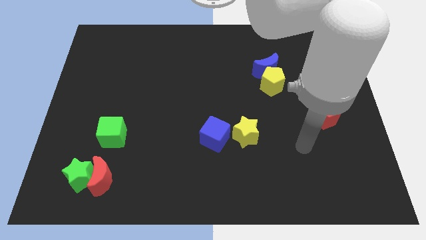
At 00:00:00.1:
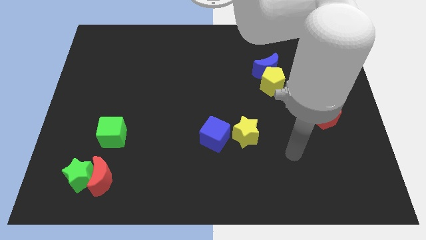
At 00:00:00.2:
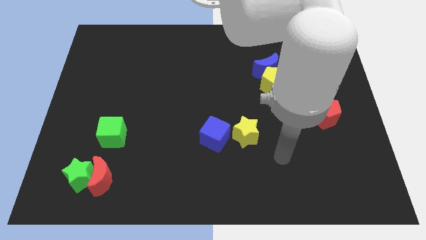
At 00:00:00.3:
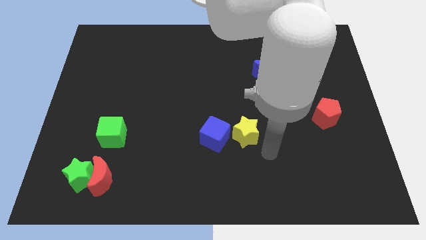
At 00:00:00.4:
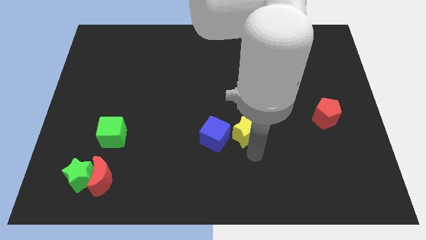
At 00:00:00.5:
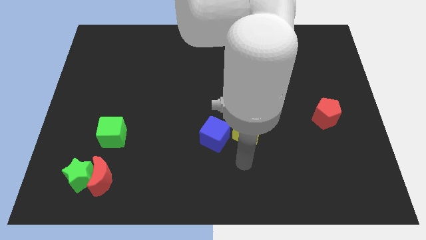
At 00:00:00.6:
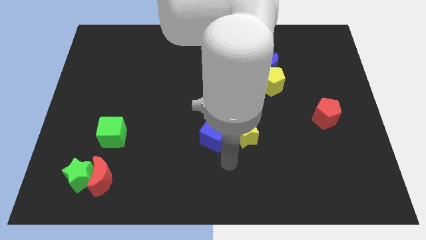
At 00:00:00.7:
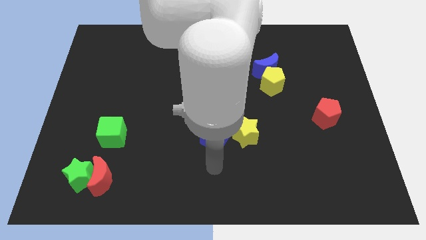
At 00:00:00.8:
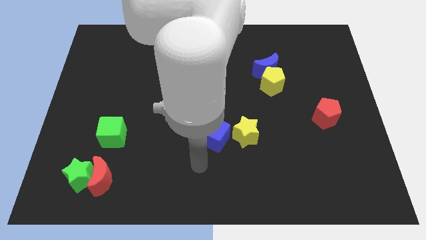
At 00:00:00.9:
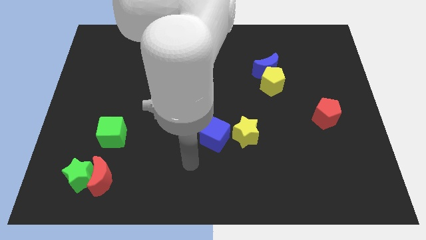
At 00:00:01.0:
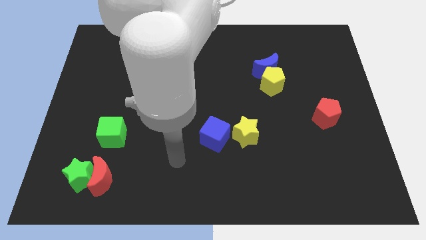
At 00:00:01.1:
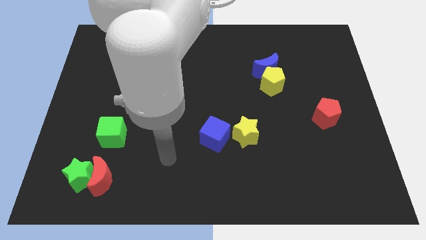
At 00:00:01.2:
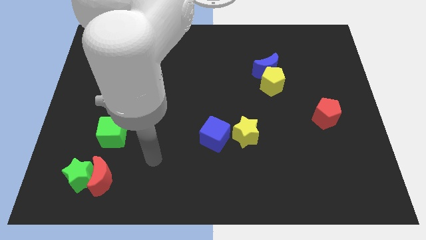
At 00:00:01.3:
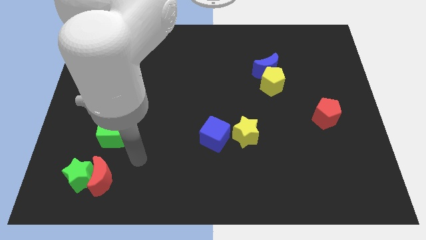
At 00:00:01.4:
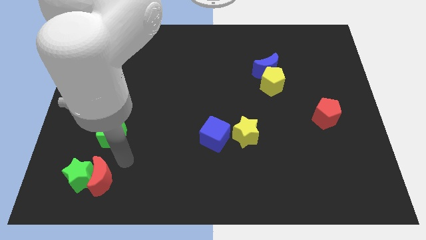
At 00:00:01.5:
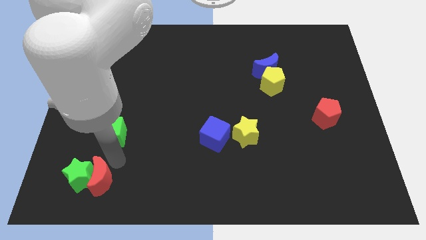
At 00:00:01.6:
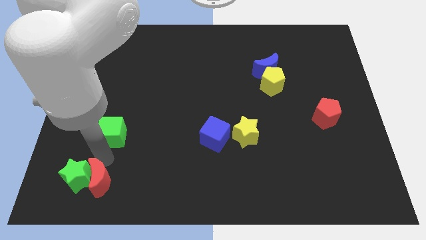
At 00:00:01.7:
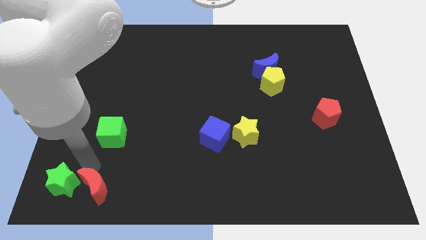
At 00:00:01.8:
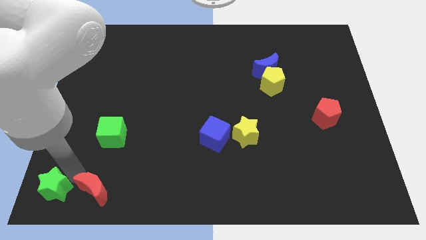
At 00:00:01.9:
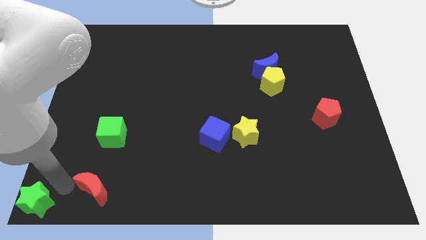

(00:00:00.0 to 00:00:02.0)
move the red moon away from the green star

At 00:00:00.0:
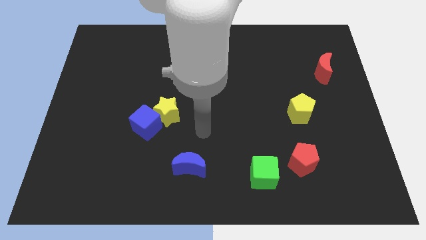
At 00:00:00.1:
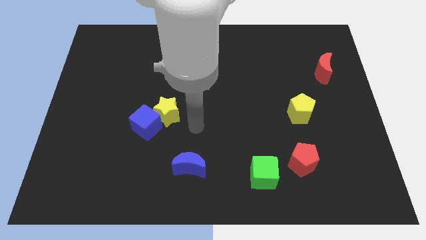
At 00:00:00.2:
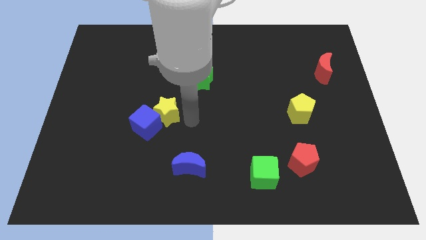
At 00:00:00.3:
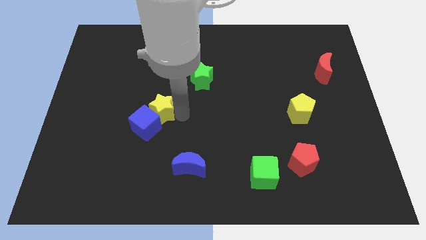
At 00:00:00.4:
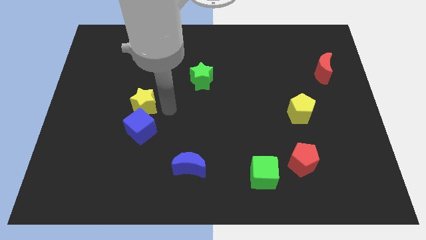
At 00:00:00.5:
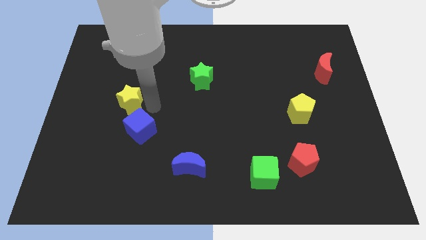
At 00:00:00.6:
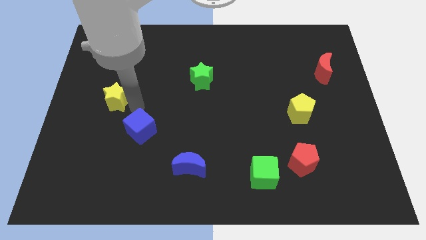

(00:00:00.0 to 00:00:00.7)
separate the blue cube from the yellow star

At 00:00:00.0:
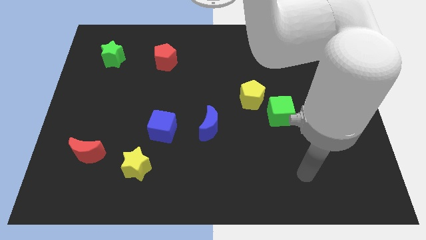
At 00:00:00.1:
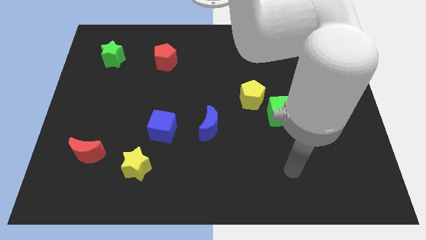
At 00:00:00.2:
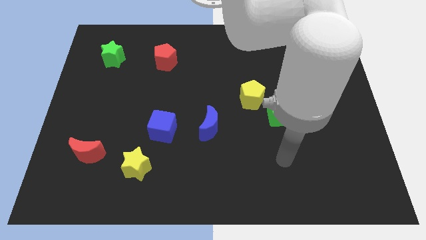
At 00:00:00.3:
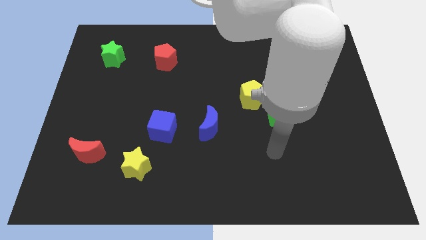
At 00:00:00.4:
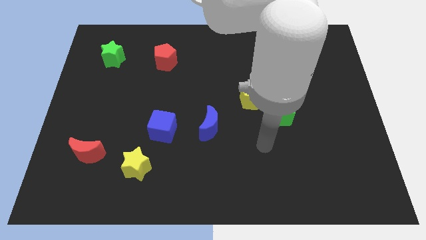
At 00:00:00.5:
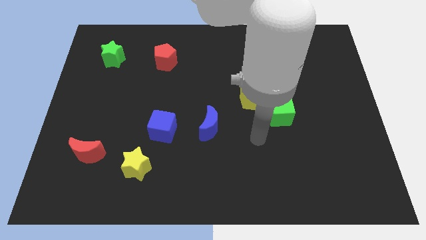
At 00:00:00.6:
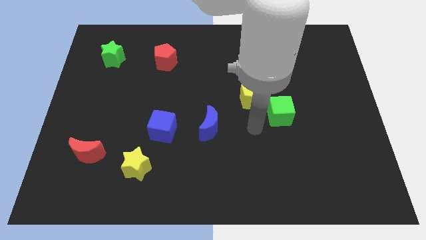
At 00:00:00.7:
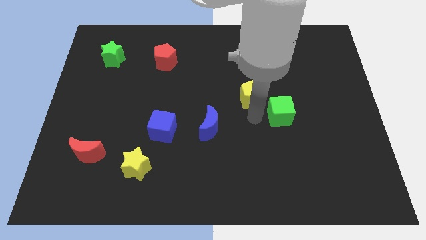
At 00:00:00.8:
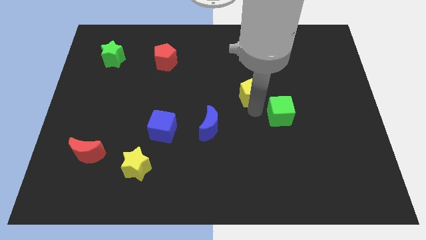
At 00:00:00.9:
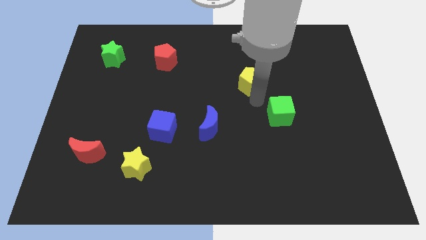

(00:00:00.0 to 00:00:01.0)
pull the green cube apart from the yellow pentagon

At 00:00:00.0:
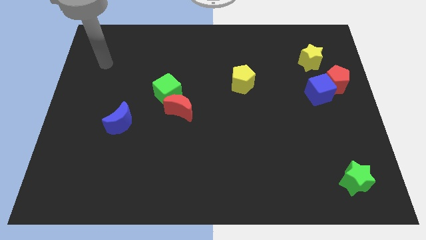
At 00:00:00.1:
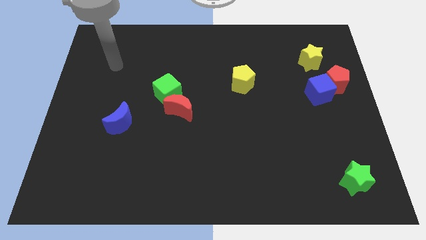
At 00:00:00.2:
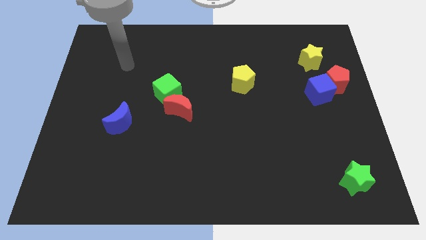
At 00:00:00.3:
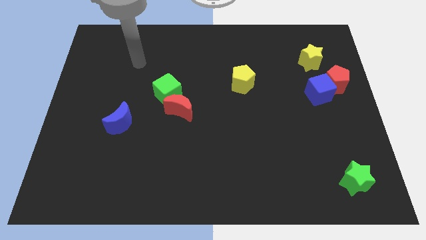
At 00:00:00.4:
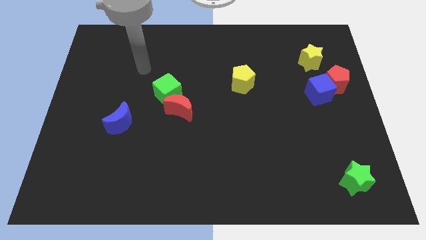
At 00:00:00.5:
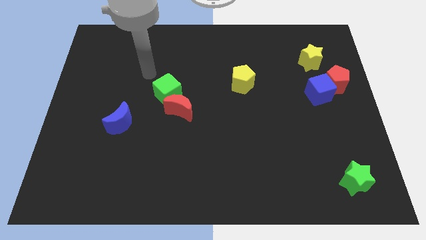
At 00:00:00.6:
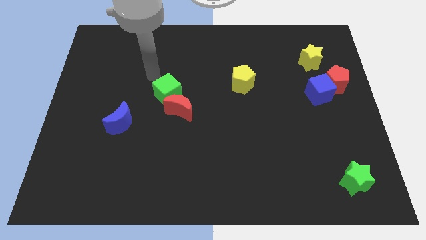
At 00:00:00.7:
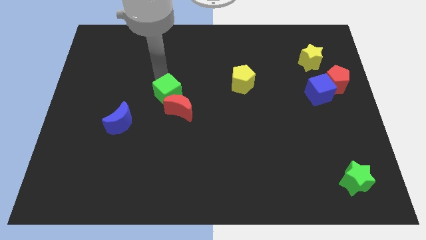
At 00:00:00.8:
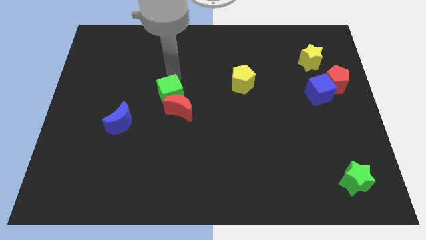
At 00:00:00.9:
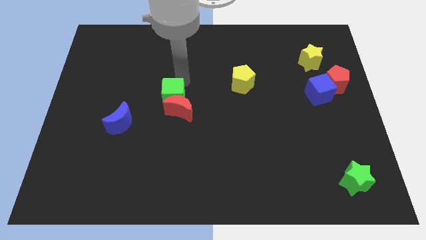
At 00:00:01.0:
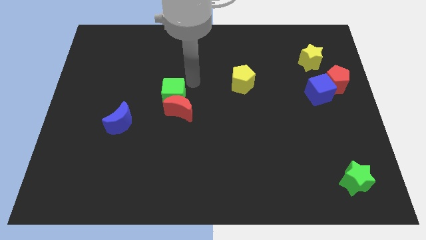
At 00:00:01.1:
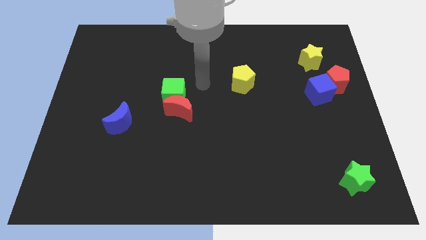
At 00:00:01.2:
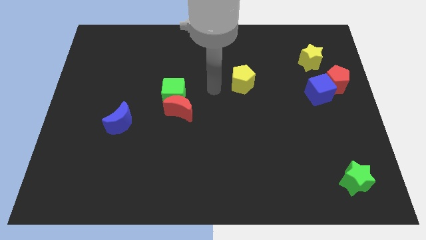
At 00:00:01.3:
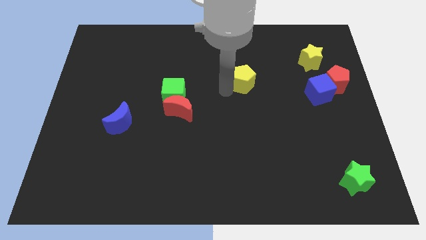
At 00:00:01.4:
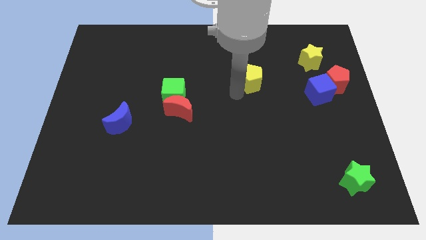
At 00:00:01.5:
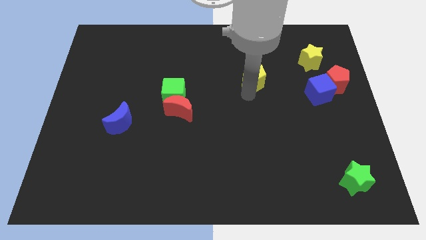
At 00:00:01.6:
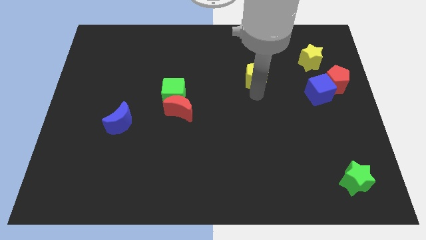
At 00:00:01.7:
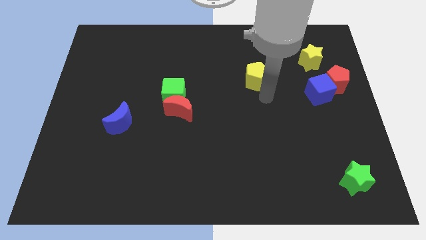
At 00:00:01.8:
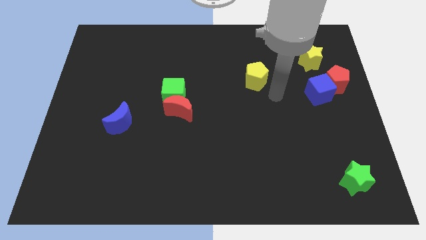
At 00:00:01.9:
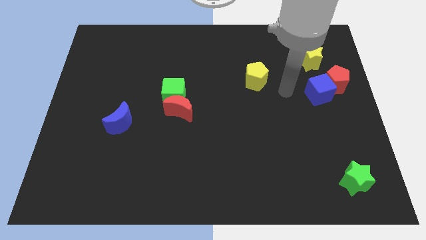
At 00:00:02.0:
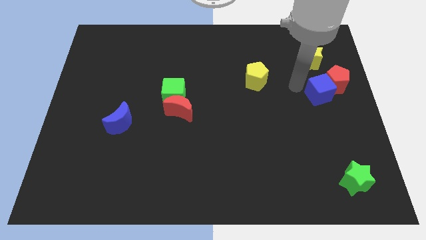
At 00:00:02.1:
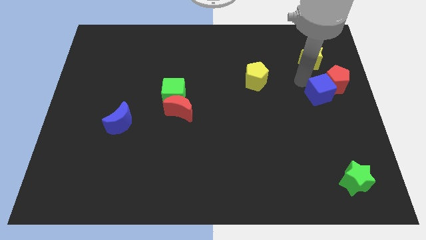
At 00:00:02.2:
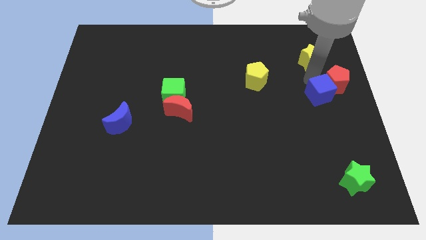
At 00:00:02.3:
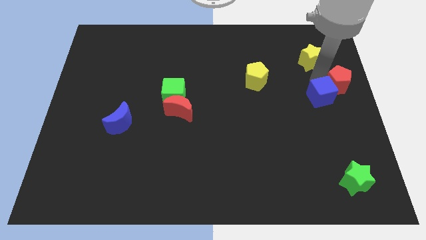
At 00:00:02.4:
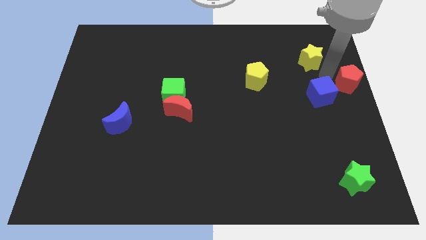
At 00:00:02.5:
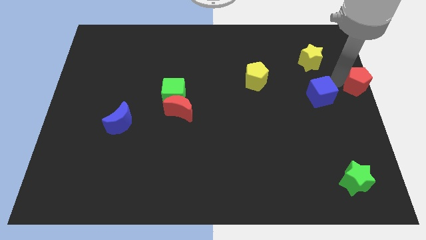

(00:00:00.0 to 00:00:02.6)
separate the blue cube from the red pentagon

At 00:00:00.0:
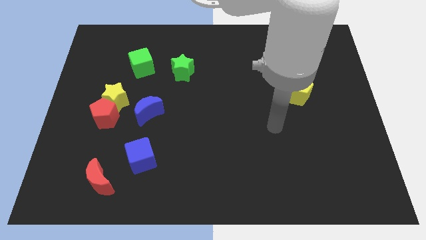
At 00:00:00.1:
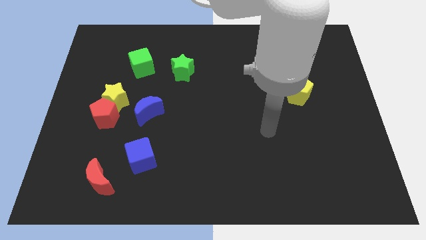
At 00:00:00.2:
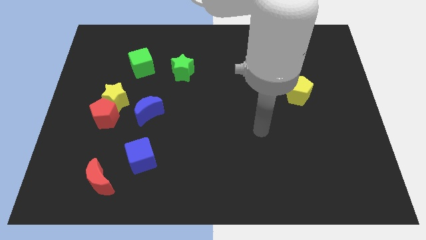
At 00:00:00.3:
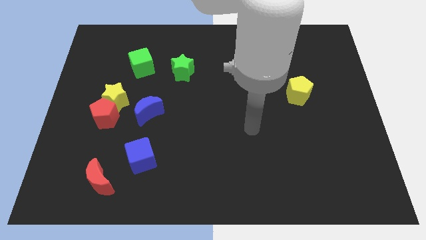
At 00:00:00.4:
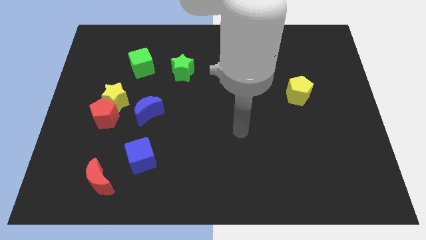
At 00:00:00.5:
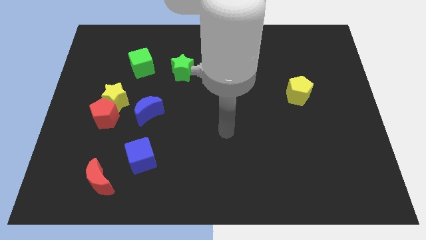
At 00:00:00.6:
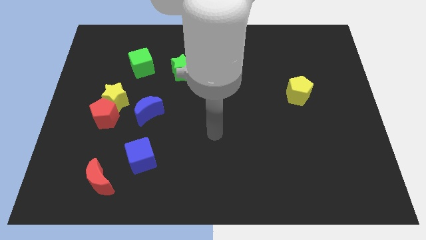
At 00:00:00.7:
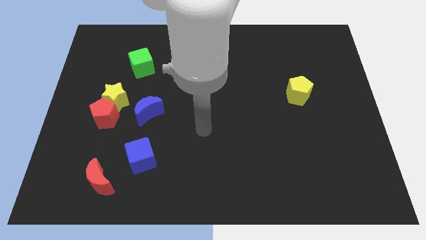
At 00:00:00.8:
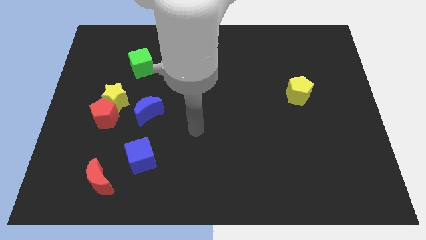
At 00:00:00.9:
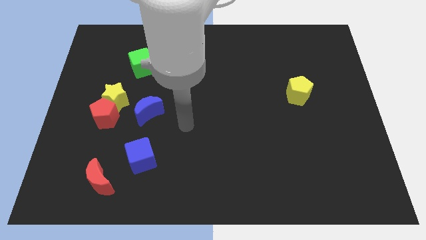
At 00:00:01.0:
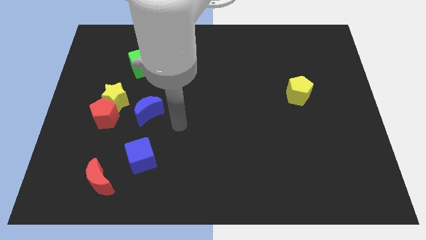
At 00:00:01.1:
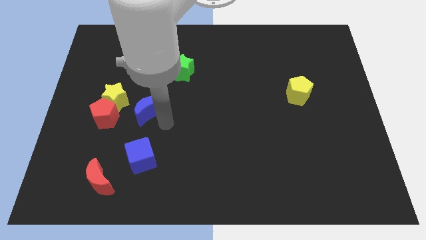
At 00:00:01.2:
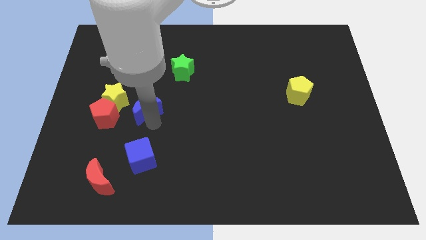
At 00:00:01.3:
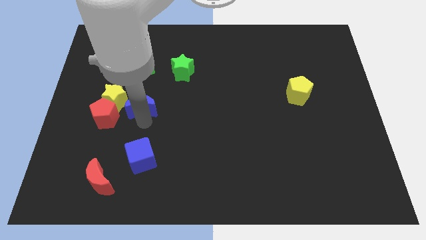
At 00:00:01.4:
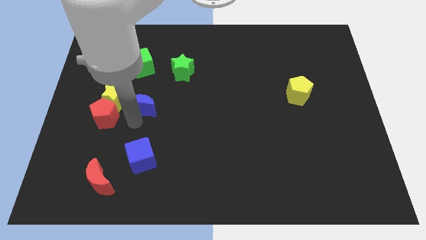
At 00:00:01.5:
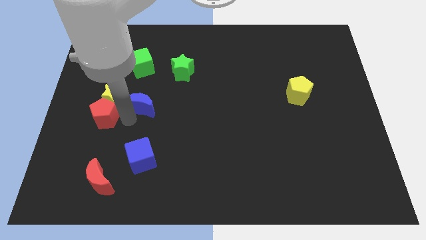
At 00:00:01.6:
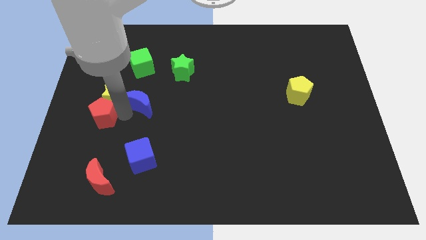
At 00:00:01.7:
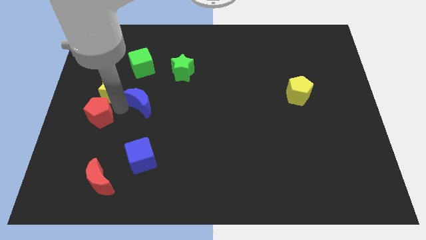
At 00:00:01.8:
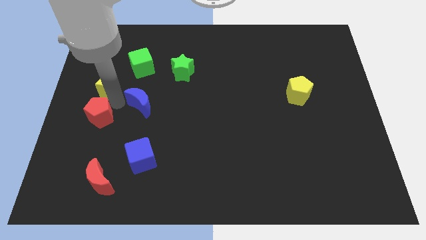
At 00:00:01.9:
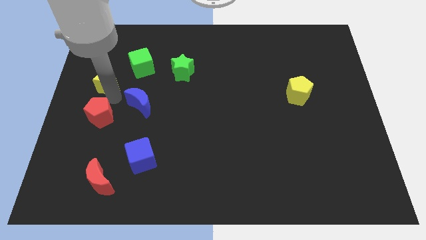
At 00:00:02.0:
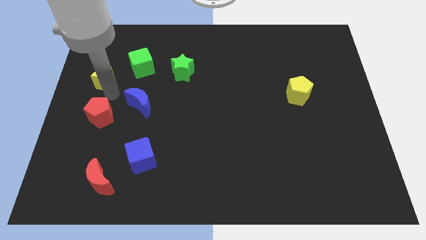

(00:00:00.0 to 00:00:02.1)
move the yellow star away from the red pentagon and blue moon

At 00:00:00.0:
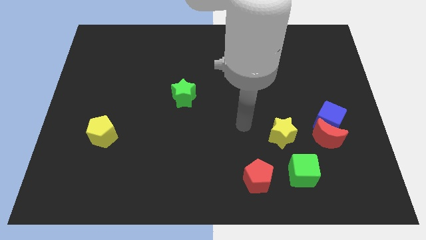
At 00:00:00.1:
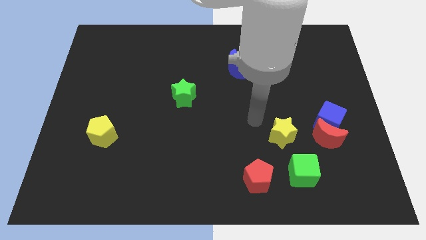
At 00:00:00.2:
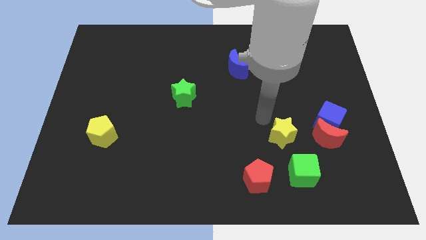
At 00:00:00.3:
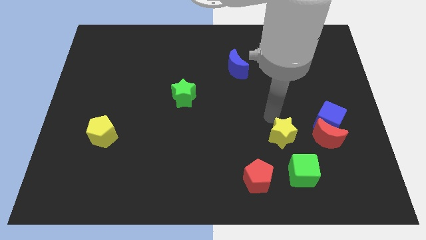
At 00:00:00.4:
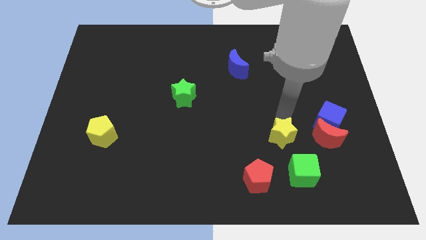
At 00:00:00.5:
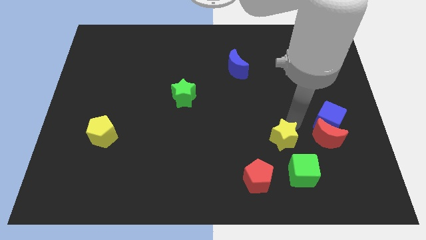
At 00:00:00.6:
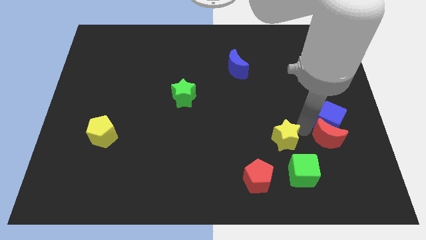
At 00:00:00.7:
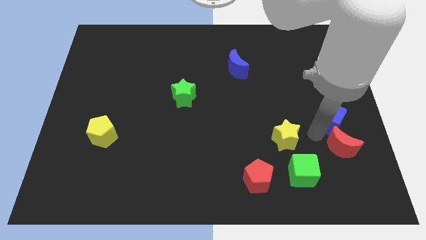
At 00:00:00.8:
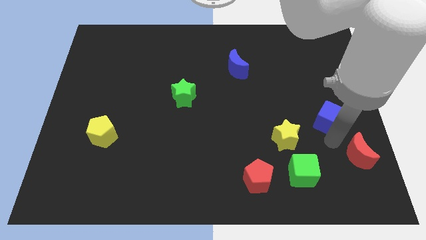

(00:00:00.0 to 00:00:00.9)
pull the blue cube apart from the red moon

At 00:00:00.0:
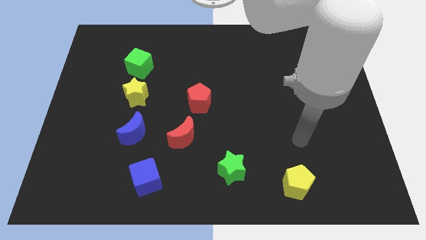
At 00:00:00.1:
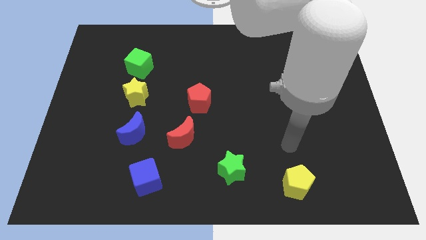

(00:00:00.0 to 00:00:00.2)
separate the green cube from the yellow star
